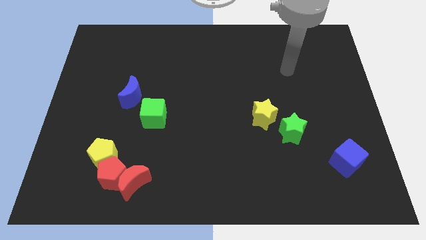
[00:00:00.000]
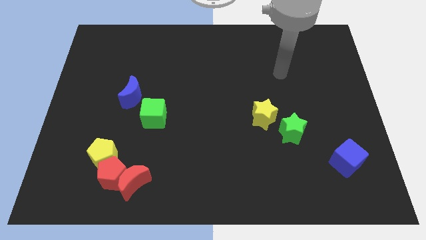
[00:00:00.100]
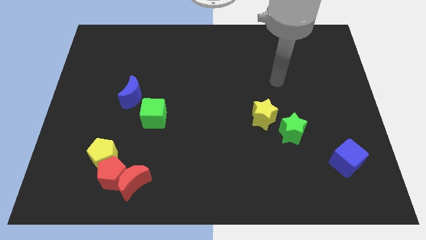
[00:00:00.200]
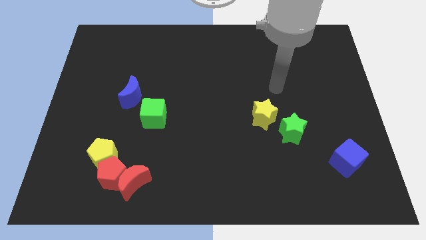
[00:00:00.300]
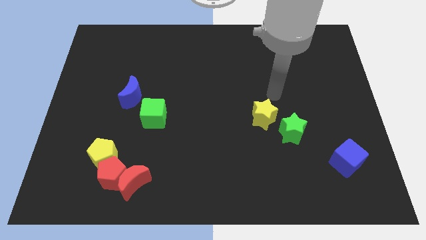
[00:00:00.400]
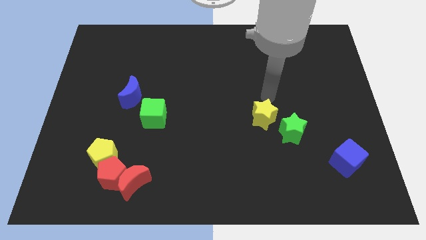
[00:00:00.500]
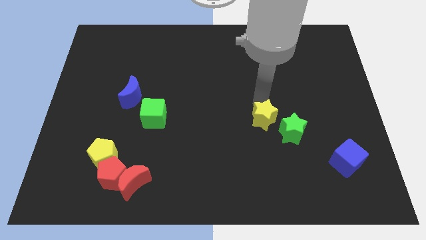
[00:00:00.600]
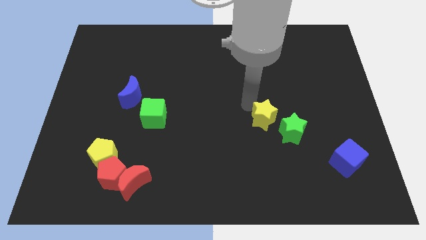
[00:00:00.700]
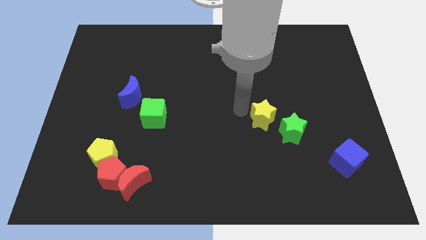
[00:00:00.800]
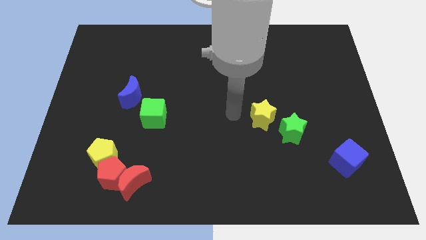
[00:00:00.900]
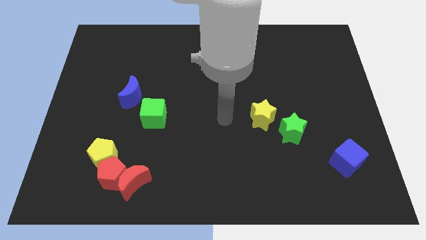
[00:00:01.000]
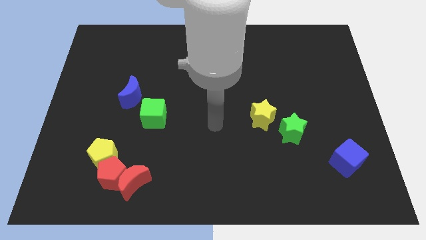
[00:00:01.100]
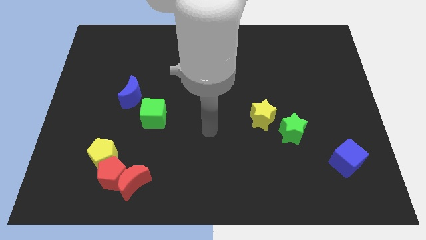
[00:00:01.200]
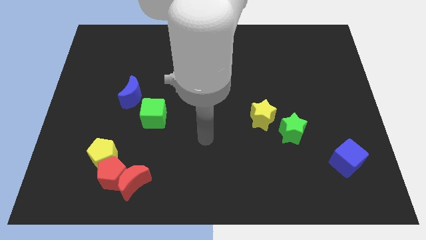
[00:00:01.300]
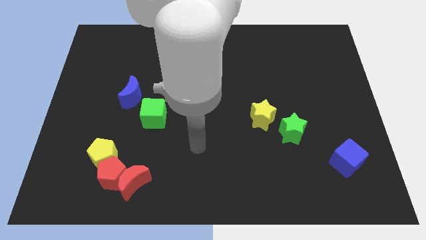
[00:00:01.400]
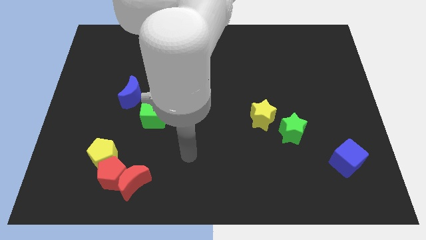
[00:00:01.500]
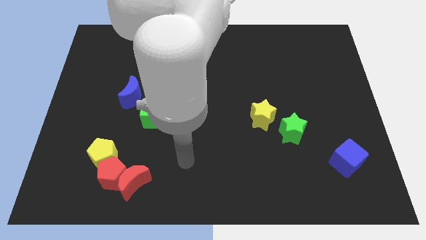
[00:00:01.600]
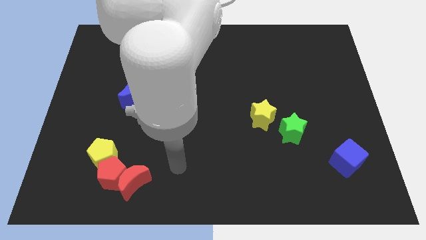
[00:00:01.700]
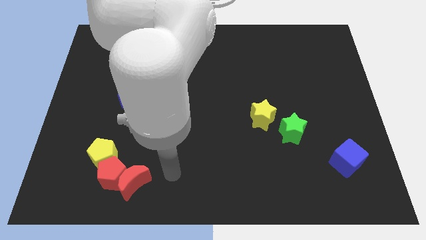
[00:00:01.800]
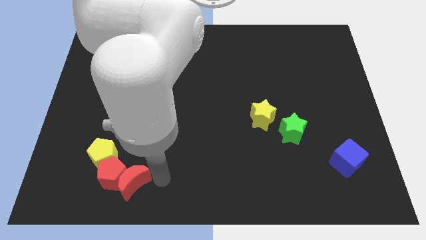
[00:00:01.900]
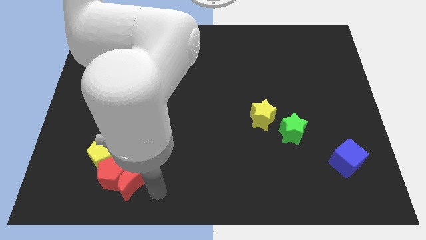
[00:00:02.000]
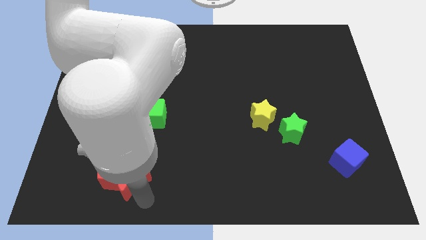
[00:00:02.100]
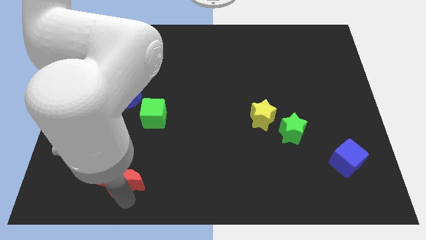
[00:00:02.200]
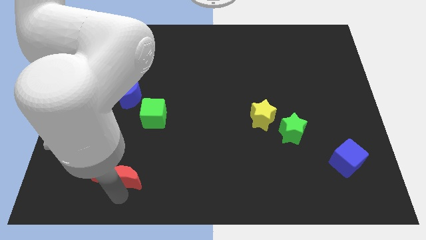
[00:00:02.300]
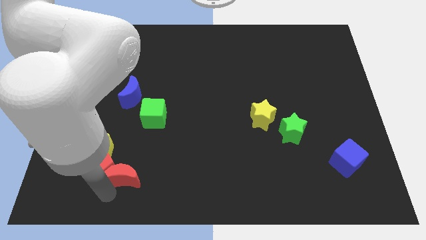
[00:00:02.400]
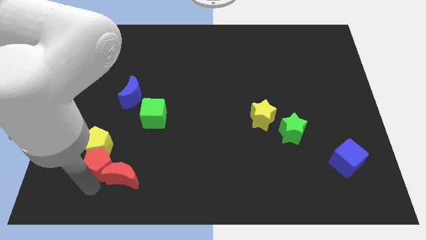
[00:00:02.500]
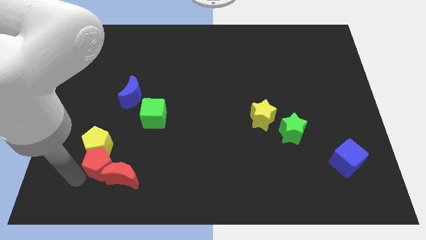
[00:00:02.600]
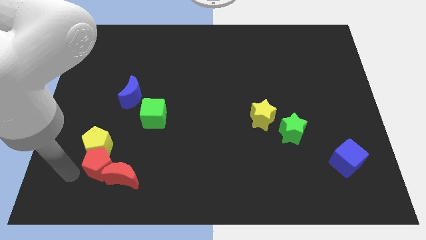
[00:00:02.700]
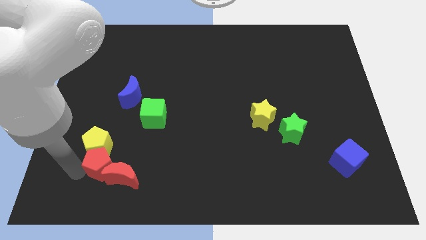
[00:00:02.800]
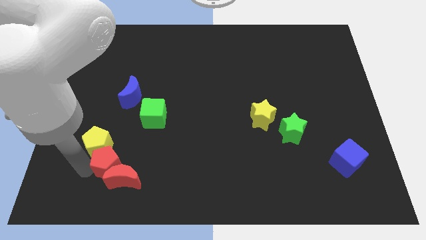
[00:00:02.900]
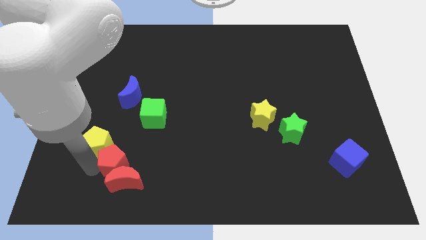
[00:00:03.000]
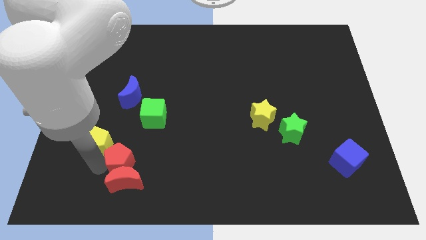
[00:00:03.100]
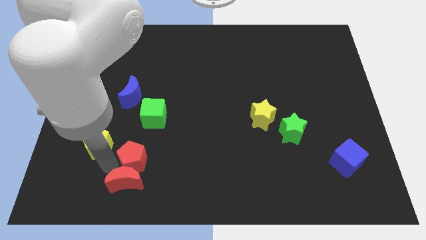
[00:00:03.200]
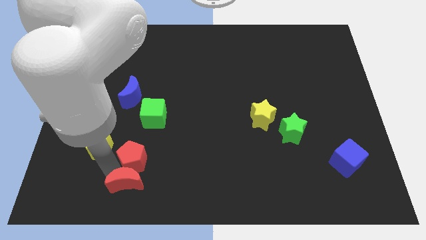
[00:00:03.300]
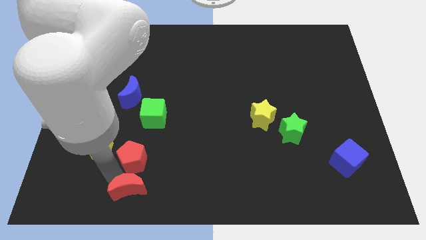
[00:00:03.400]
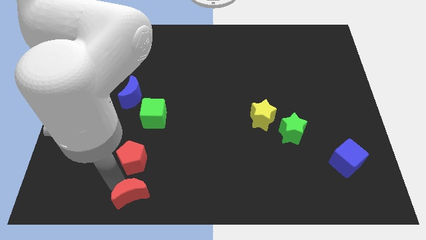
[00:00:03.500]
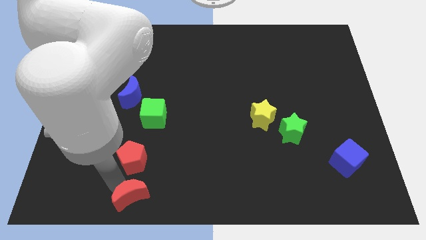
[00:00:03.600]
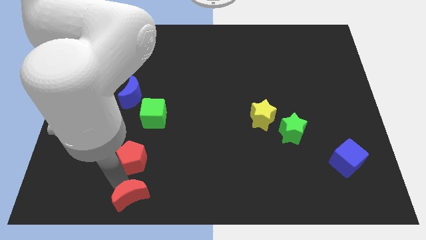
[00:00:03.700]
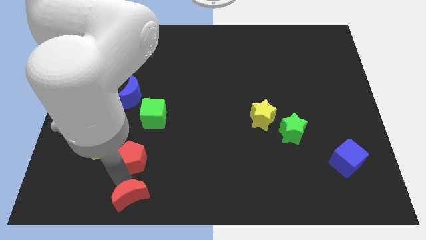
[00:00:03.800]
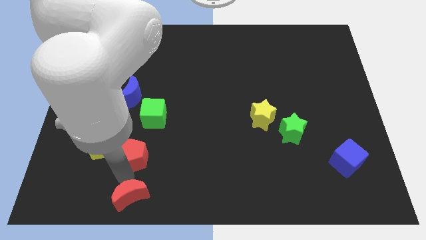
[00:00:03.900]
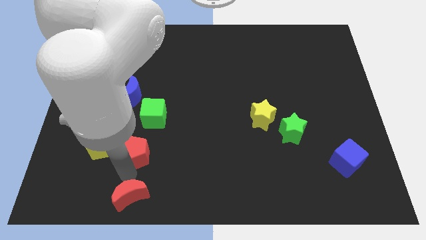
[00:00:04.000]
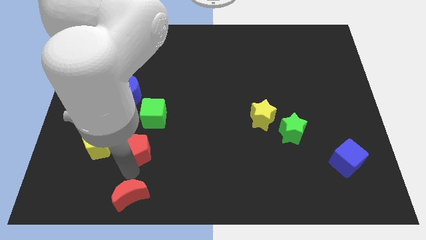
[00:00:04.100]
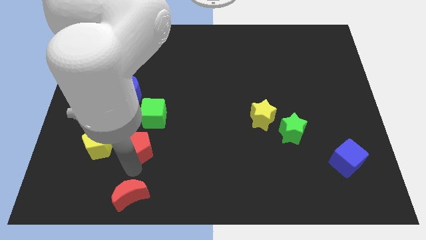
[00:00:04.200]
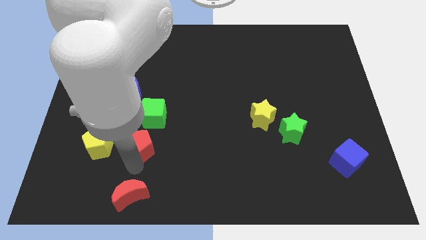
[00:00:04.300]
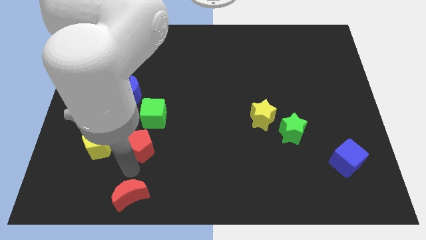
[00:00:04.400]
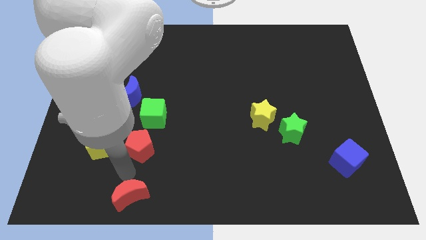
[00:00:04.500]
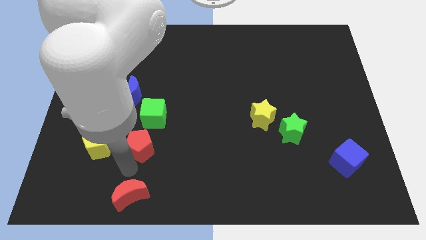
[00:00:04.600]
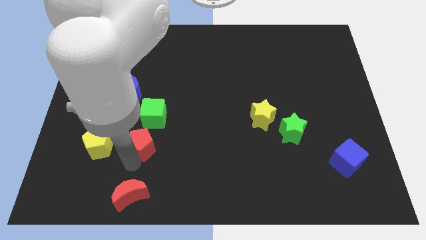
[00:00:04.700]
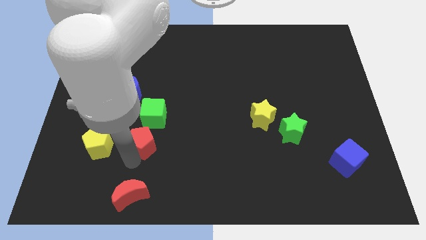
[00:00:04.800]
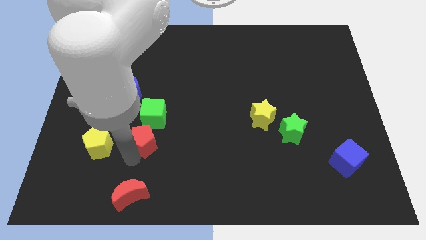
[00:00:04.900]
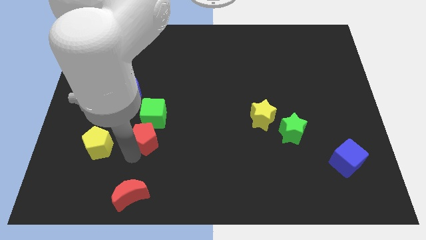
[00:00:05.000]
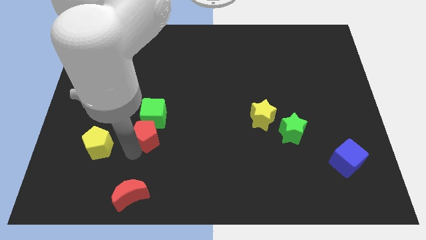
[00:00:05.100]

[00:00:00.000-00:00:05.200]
put the red pentagon to the green cube

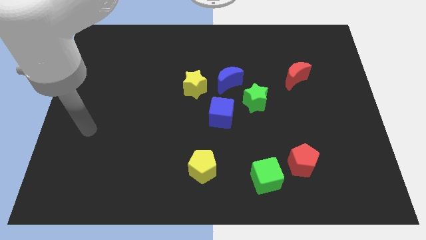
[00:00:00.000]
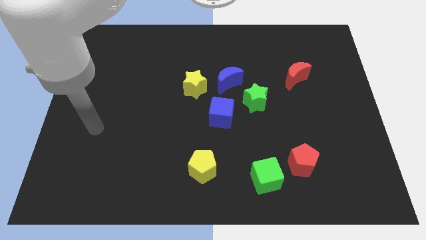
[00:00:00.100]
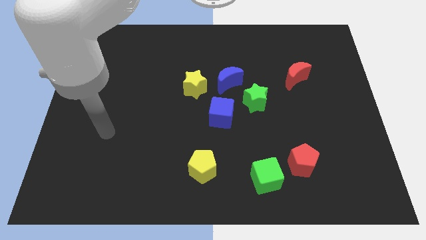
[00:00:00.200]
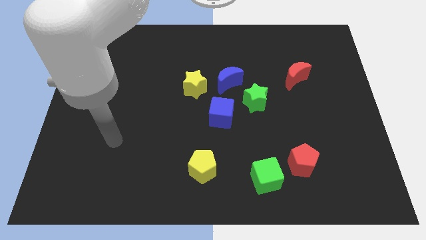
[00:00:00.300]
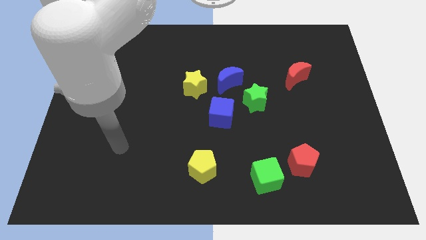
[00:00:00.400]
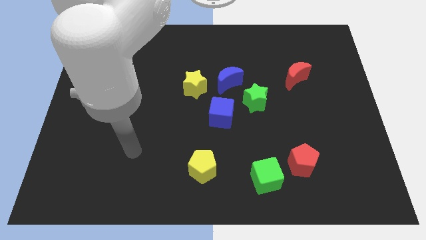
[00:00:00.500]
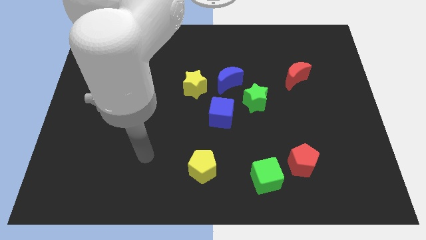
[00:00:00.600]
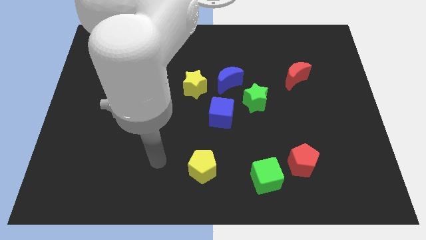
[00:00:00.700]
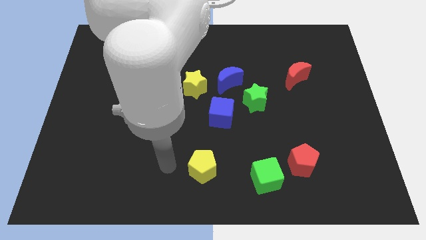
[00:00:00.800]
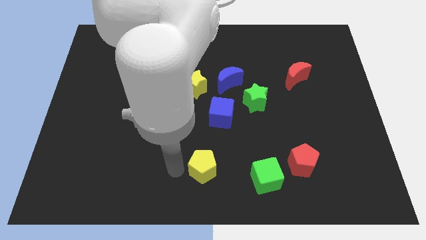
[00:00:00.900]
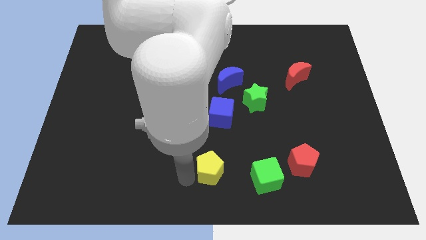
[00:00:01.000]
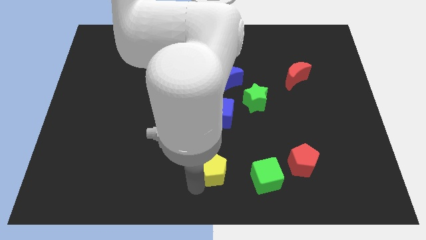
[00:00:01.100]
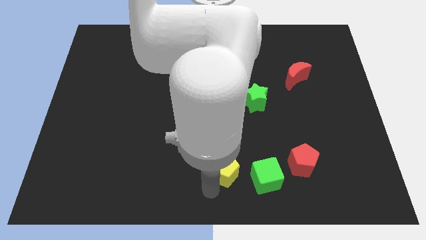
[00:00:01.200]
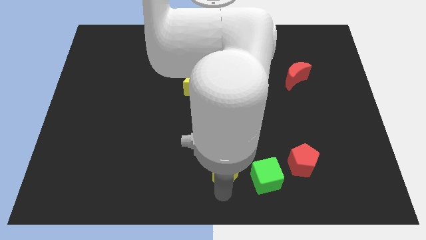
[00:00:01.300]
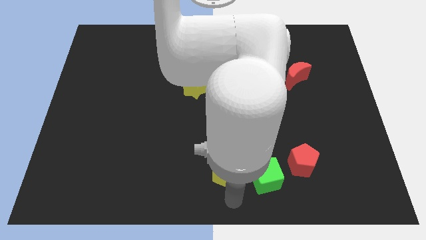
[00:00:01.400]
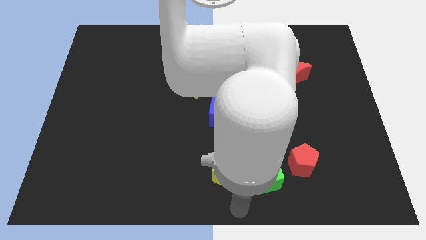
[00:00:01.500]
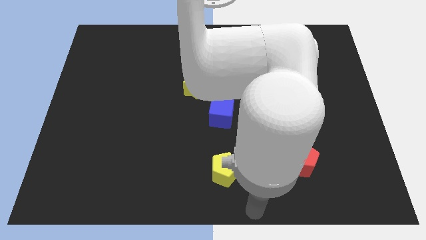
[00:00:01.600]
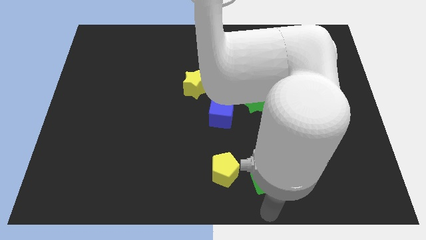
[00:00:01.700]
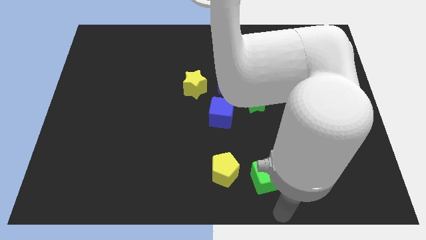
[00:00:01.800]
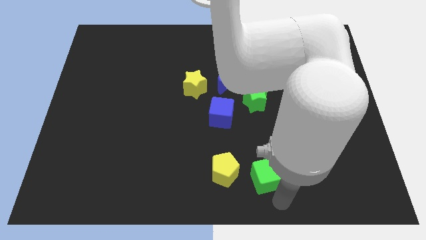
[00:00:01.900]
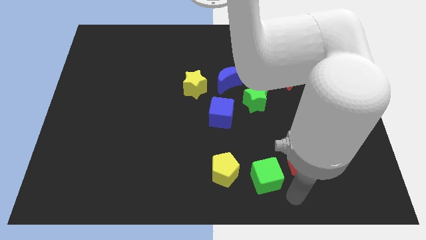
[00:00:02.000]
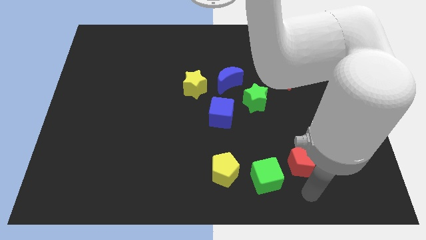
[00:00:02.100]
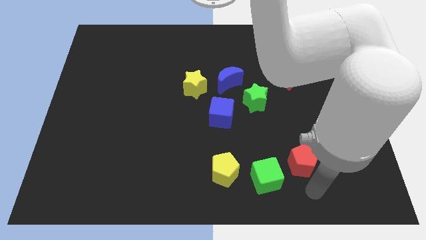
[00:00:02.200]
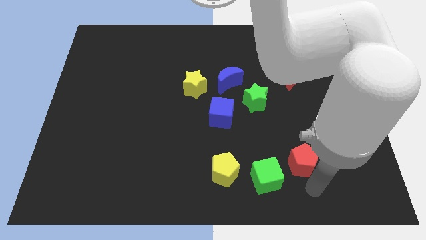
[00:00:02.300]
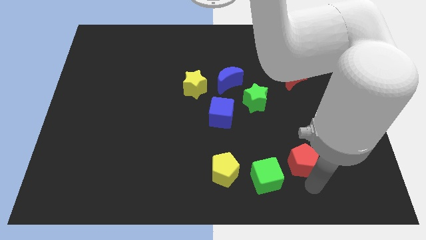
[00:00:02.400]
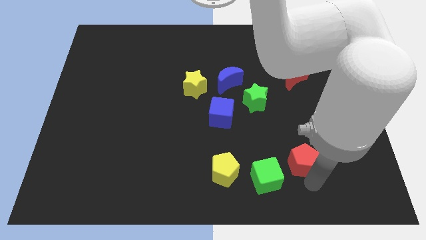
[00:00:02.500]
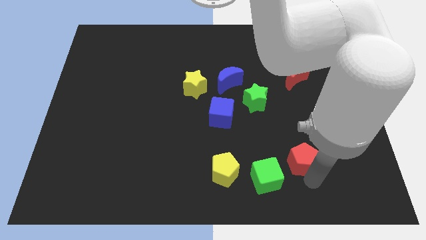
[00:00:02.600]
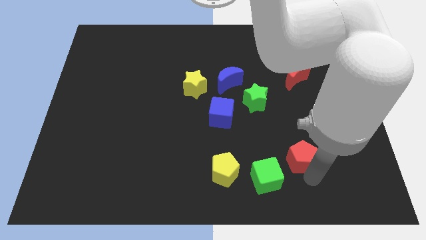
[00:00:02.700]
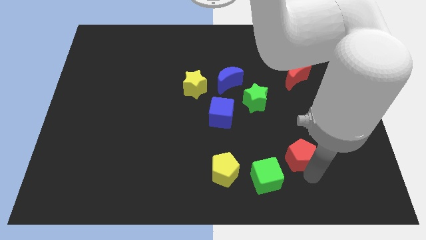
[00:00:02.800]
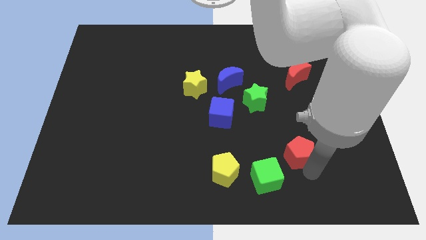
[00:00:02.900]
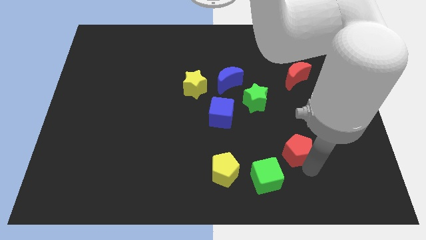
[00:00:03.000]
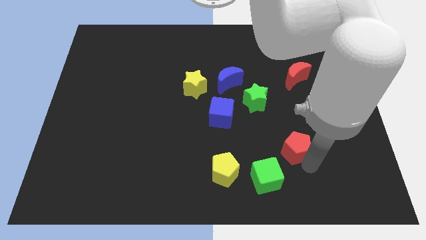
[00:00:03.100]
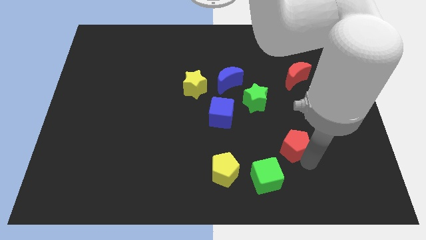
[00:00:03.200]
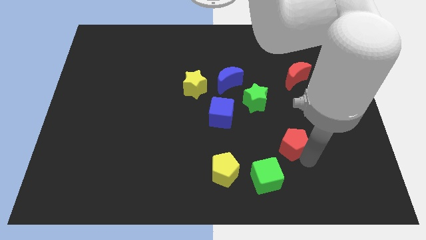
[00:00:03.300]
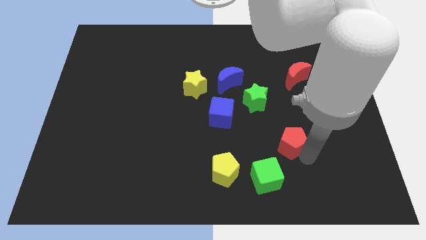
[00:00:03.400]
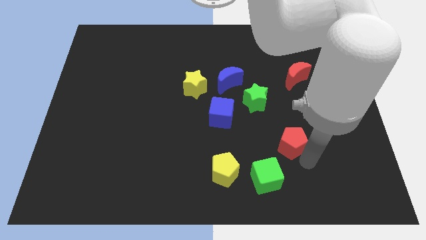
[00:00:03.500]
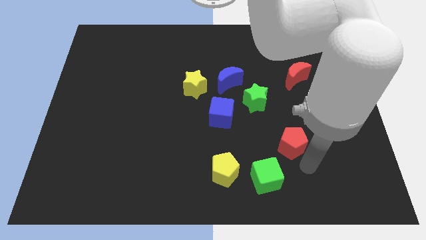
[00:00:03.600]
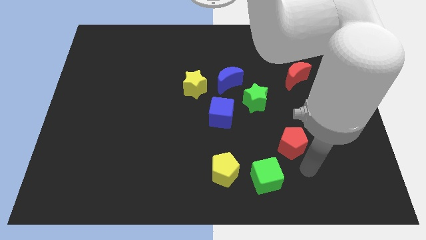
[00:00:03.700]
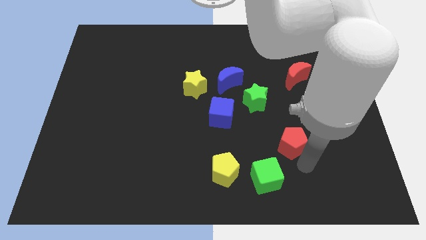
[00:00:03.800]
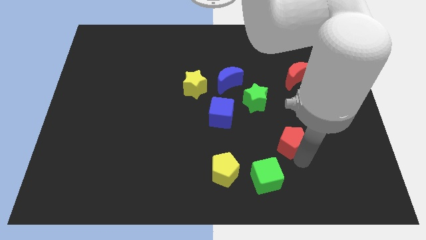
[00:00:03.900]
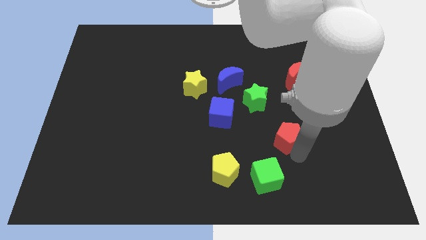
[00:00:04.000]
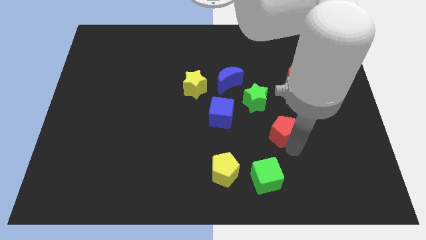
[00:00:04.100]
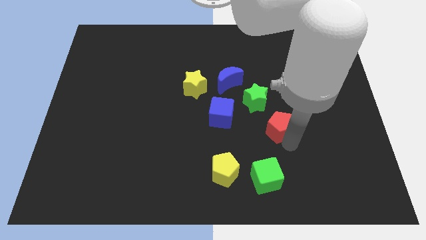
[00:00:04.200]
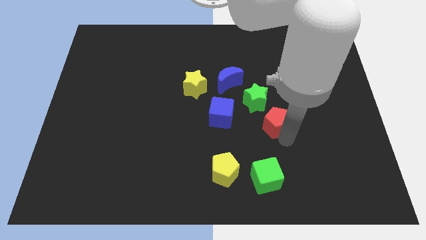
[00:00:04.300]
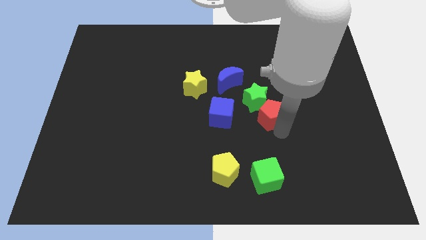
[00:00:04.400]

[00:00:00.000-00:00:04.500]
push the red pentagon to the green star
